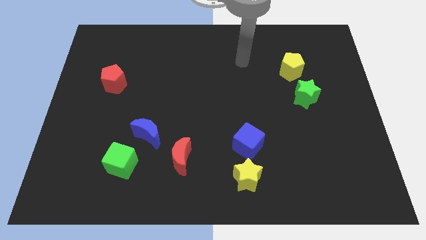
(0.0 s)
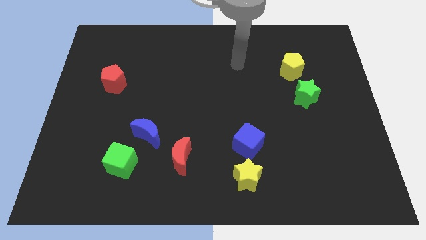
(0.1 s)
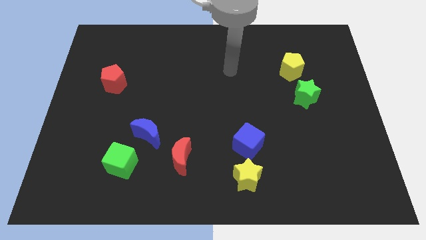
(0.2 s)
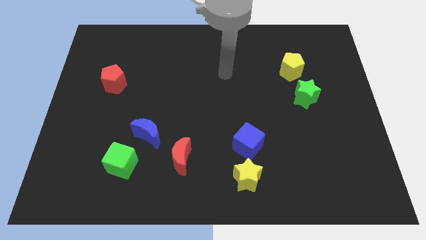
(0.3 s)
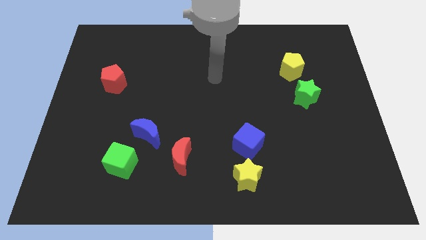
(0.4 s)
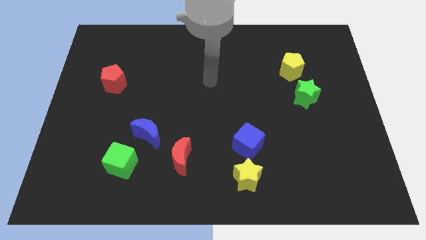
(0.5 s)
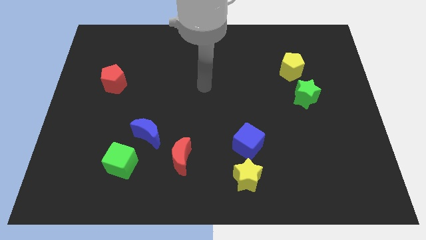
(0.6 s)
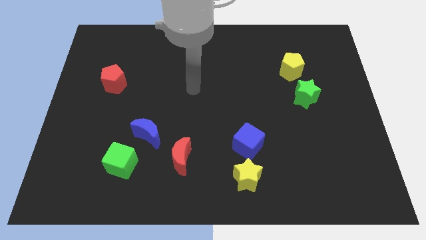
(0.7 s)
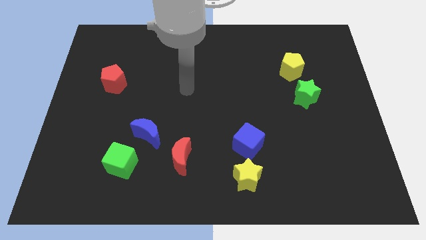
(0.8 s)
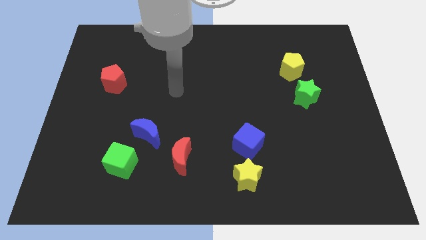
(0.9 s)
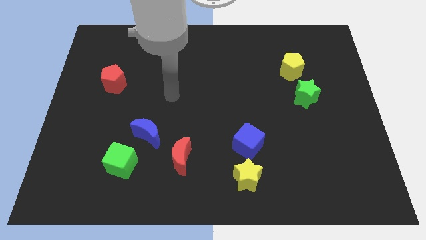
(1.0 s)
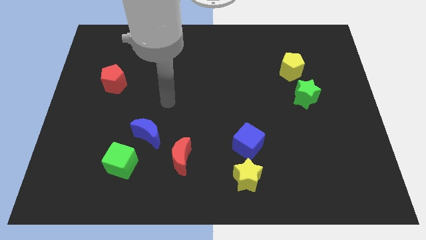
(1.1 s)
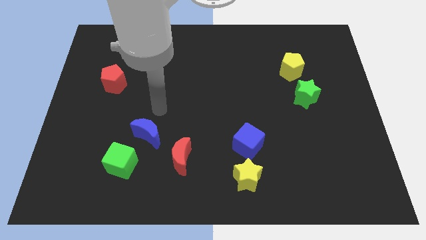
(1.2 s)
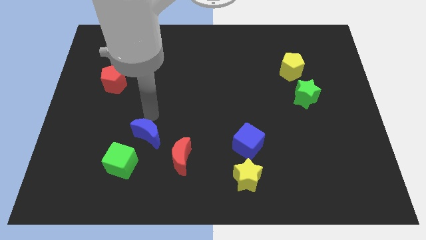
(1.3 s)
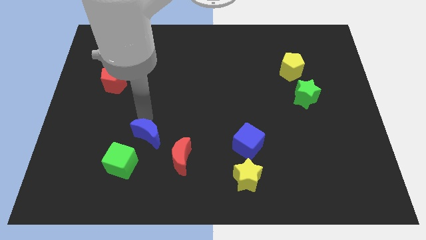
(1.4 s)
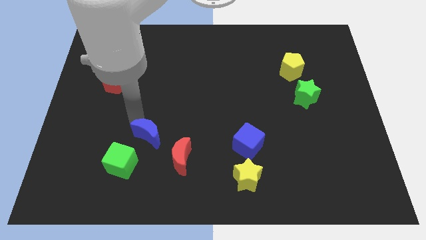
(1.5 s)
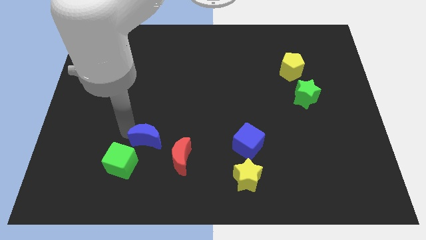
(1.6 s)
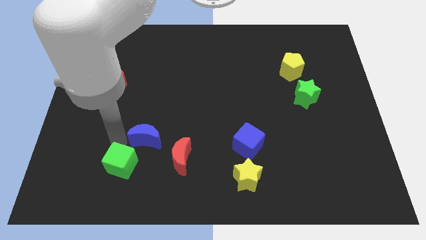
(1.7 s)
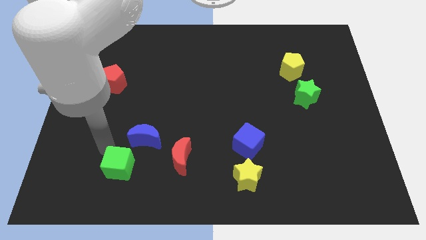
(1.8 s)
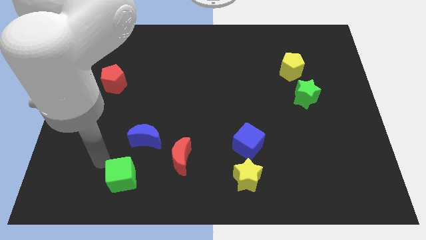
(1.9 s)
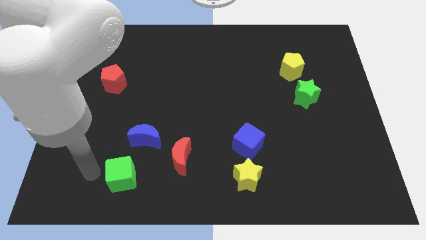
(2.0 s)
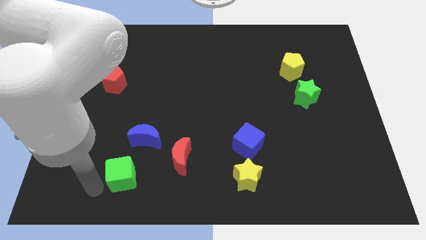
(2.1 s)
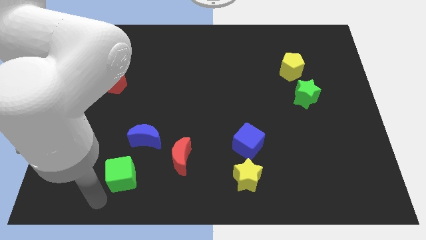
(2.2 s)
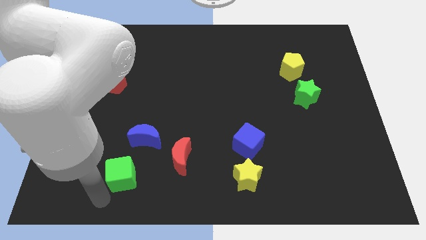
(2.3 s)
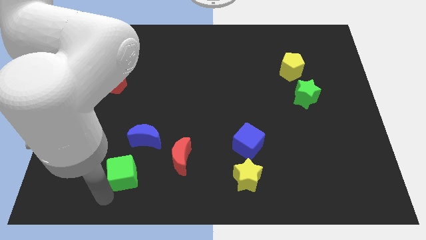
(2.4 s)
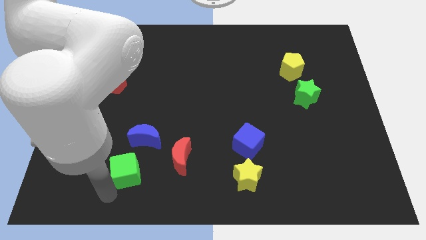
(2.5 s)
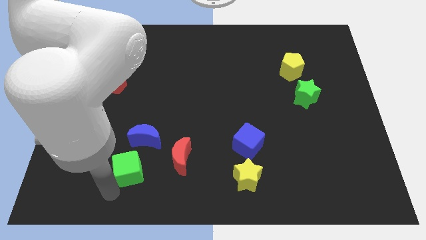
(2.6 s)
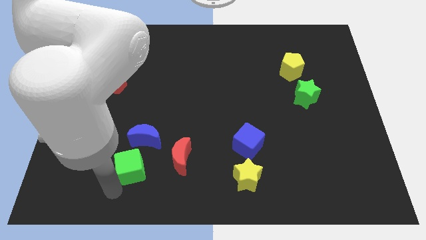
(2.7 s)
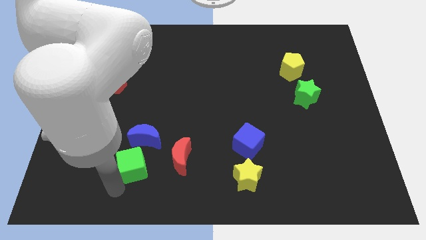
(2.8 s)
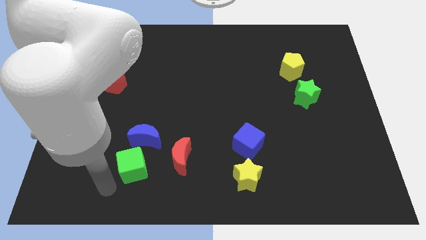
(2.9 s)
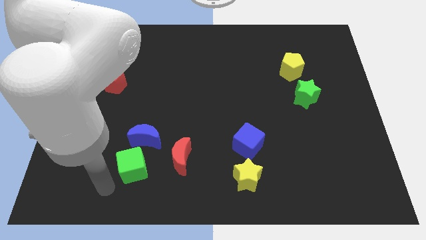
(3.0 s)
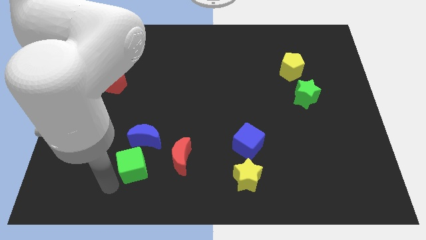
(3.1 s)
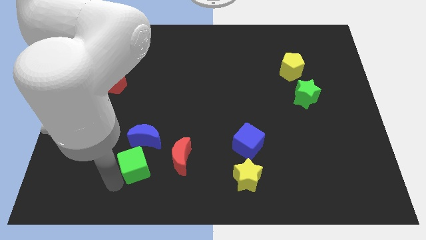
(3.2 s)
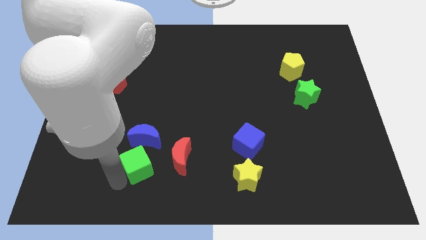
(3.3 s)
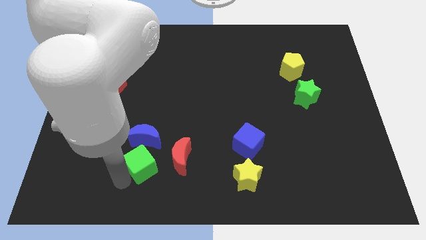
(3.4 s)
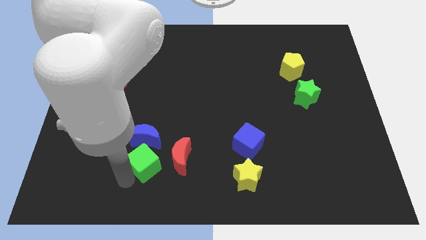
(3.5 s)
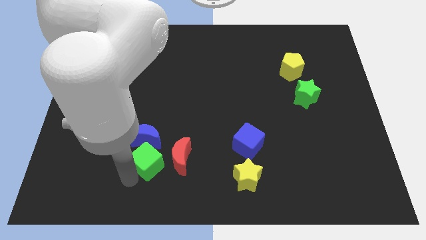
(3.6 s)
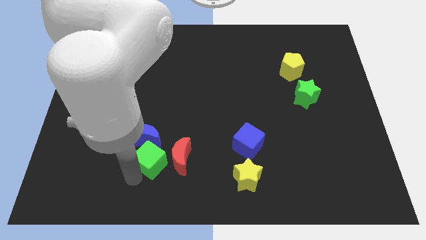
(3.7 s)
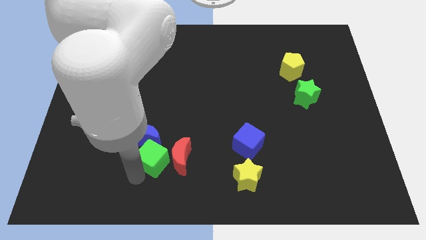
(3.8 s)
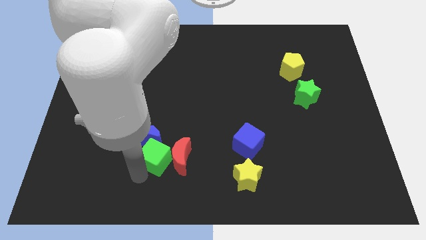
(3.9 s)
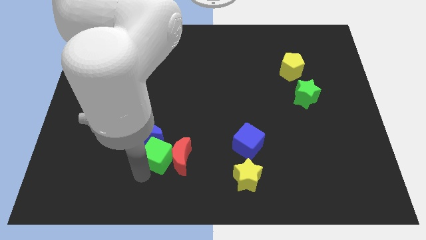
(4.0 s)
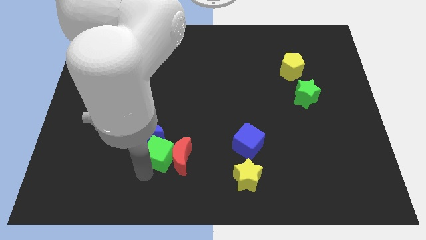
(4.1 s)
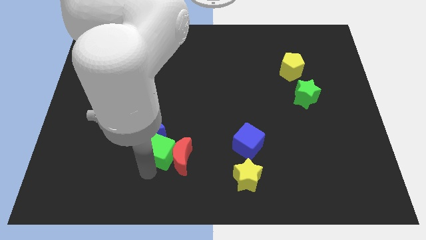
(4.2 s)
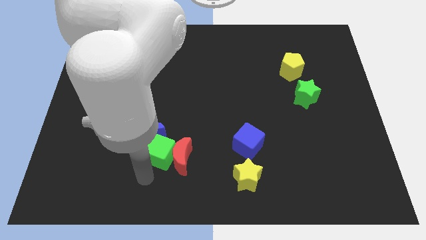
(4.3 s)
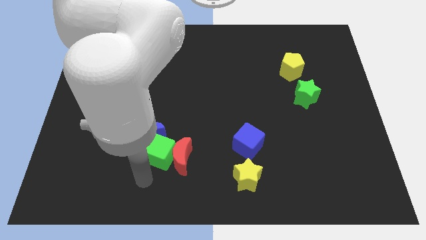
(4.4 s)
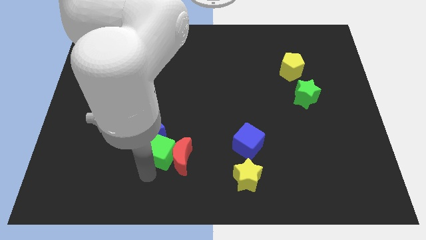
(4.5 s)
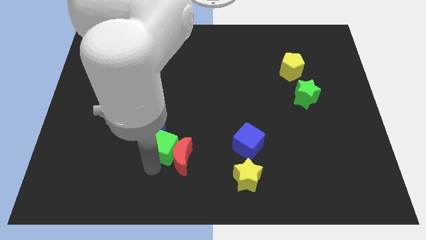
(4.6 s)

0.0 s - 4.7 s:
slide the green cube slightly up and right diagonally

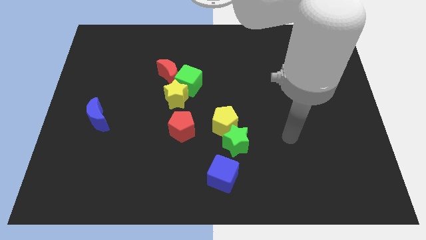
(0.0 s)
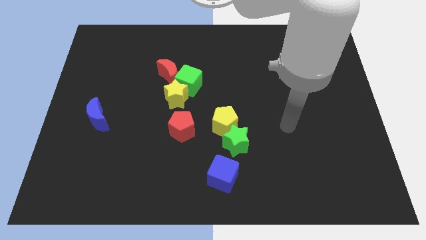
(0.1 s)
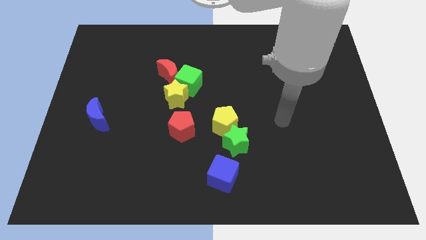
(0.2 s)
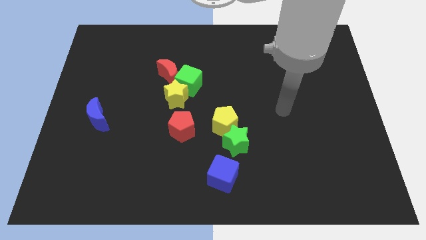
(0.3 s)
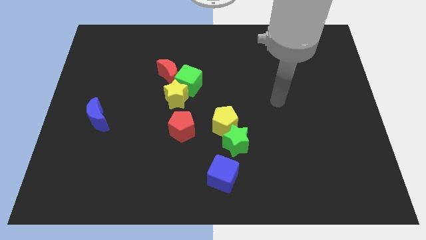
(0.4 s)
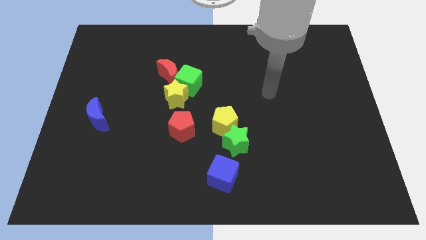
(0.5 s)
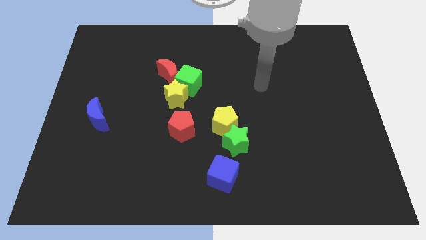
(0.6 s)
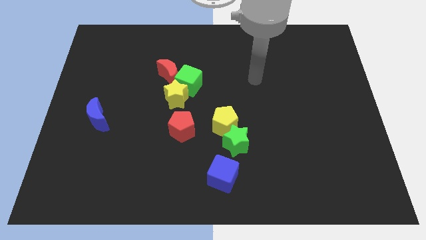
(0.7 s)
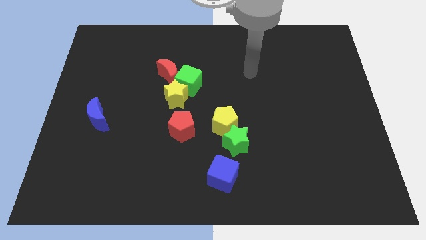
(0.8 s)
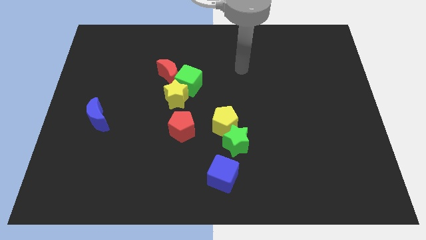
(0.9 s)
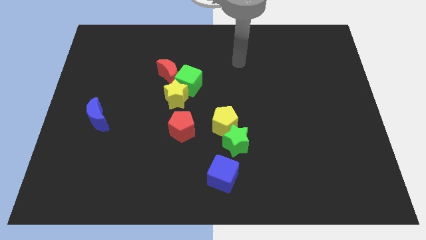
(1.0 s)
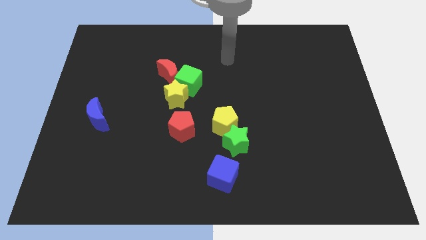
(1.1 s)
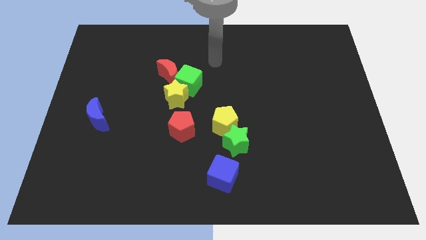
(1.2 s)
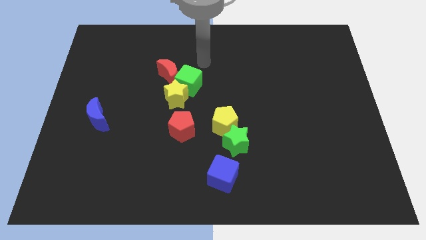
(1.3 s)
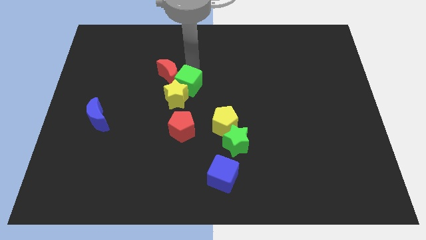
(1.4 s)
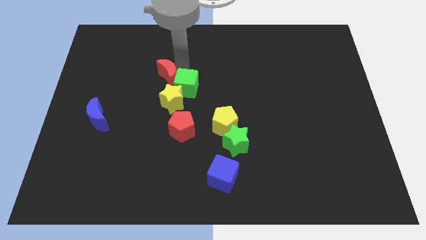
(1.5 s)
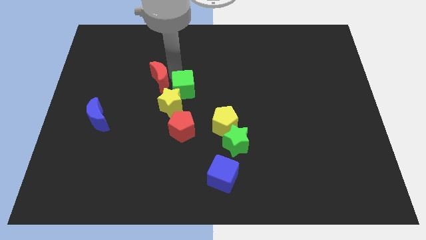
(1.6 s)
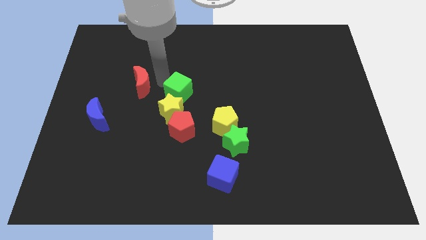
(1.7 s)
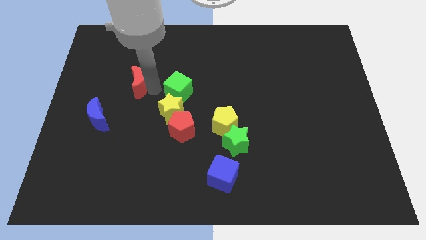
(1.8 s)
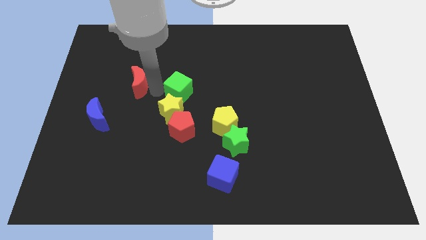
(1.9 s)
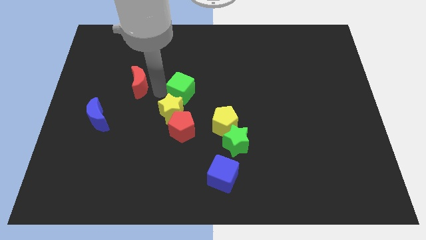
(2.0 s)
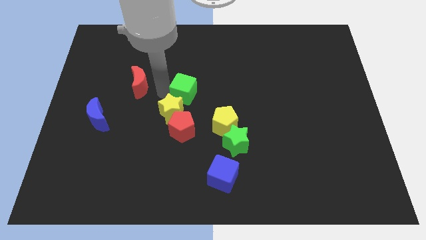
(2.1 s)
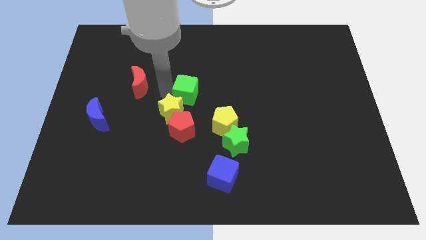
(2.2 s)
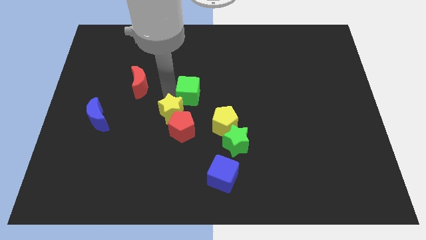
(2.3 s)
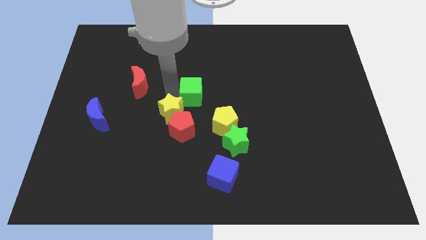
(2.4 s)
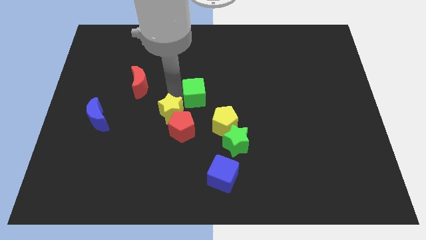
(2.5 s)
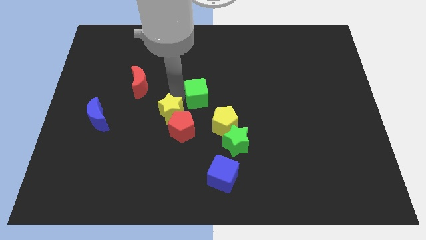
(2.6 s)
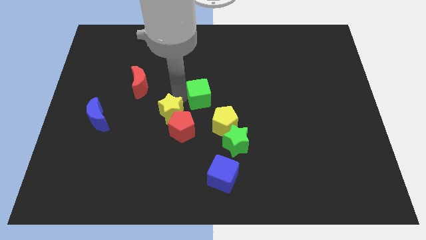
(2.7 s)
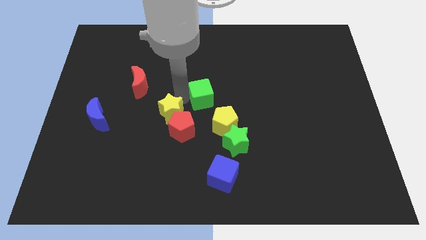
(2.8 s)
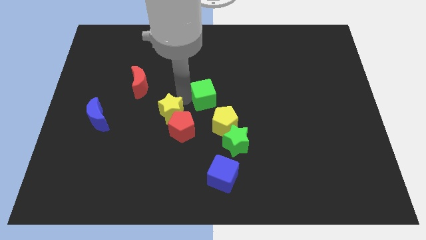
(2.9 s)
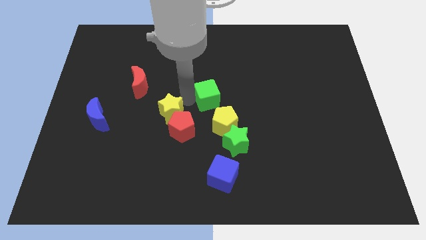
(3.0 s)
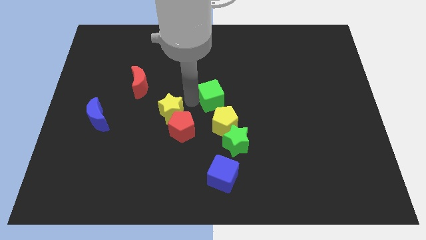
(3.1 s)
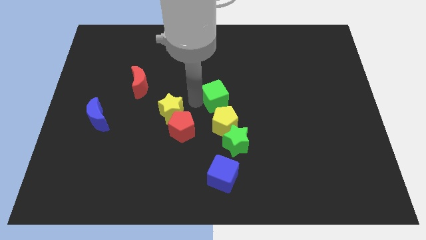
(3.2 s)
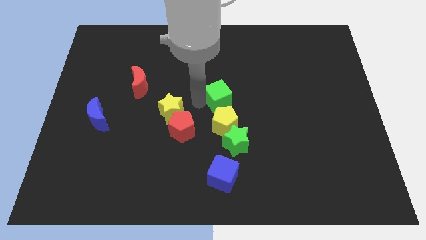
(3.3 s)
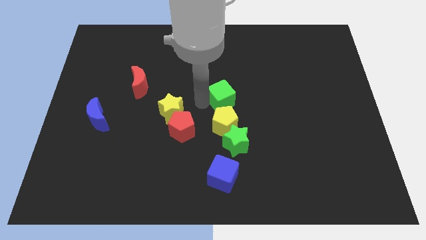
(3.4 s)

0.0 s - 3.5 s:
slightly move the green cube to the right
